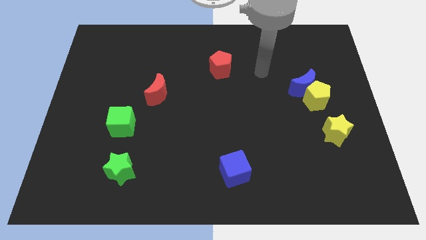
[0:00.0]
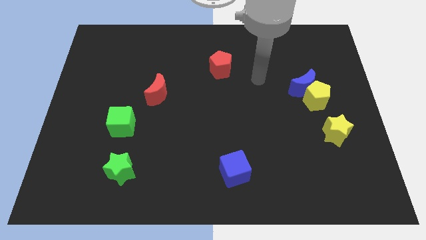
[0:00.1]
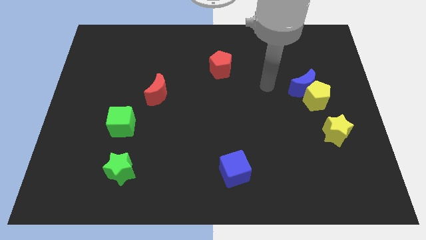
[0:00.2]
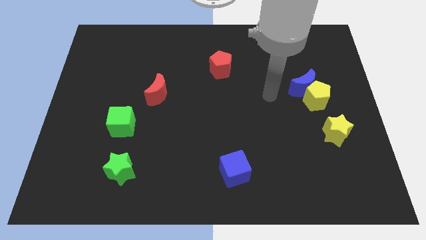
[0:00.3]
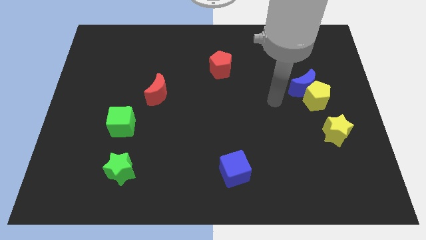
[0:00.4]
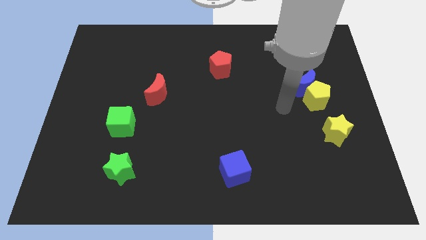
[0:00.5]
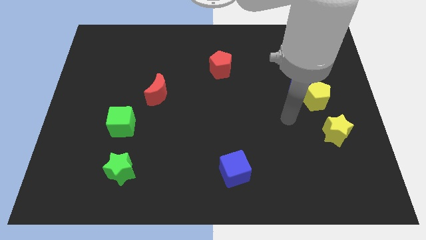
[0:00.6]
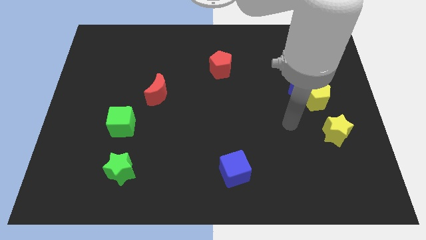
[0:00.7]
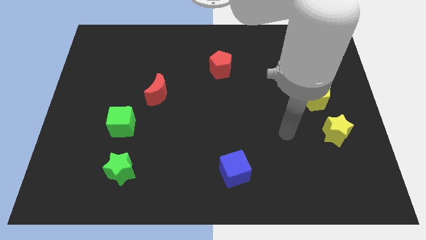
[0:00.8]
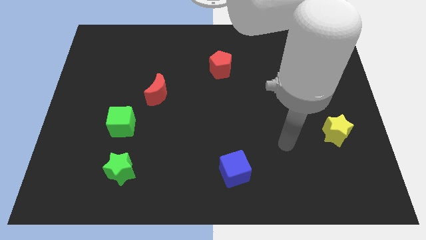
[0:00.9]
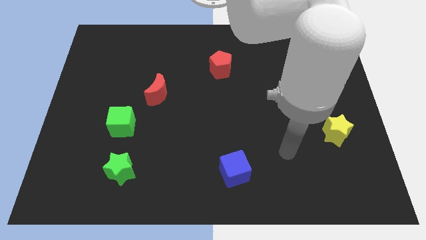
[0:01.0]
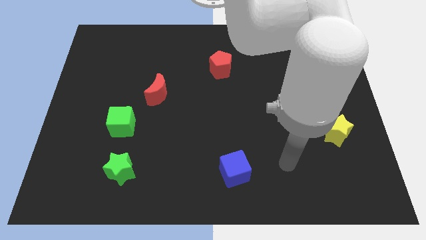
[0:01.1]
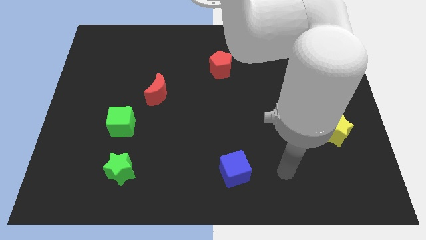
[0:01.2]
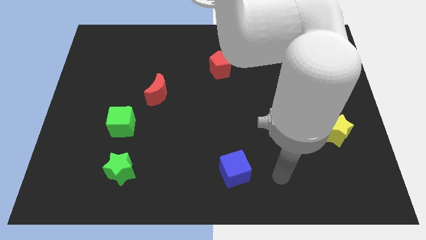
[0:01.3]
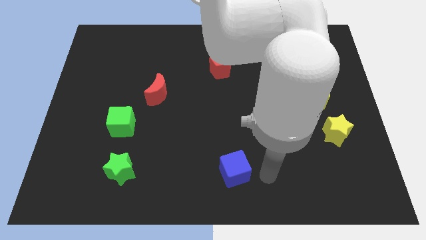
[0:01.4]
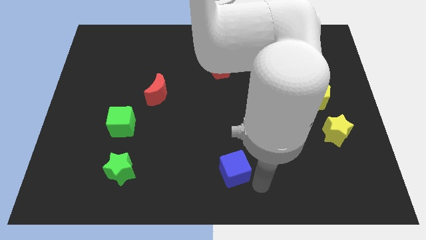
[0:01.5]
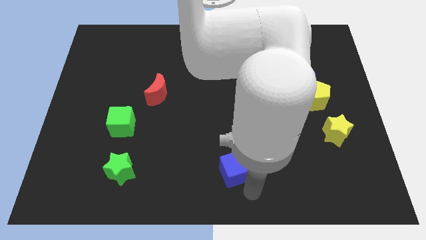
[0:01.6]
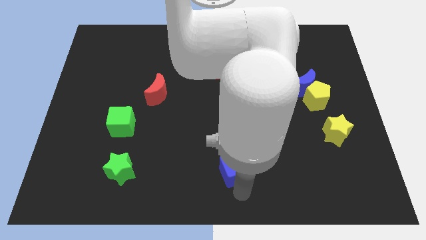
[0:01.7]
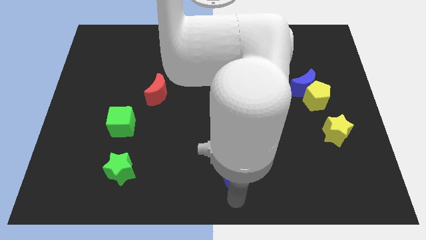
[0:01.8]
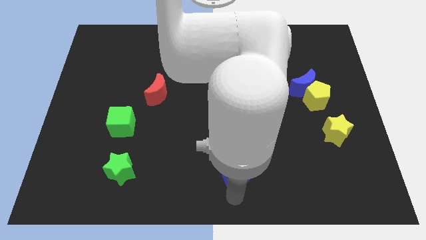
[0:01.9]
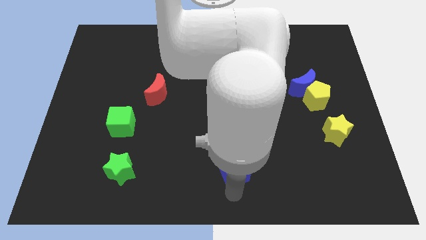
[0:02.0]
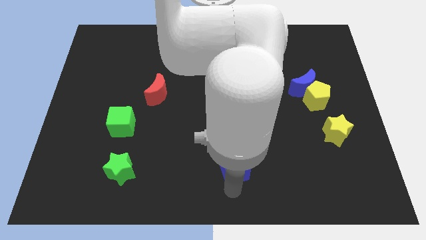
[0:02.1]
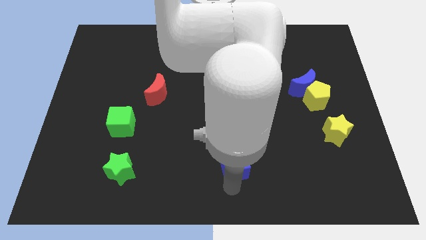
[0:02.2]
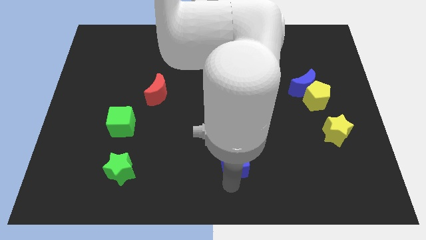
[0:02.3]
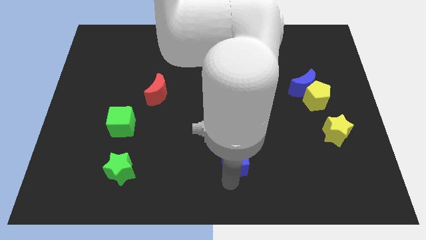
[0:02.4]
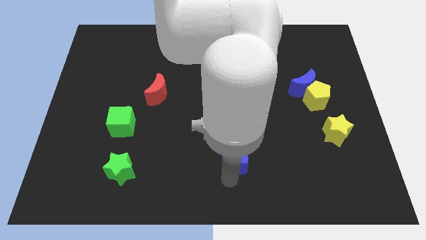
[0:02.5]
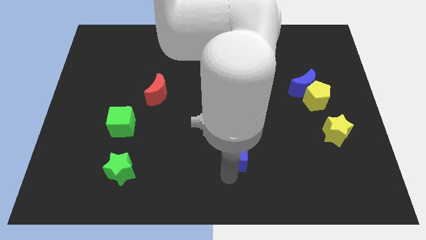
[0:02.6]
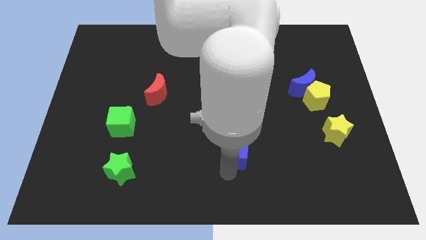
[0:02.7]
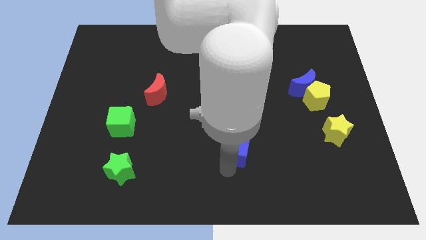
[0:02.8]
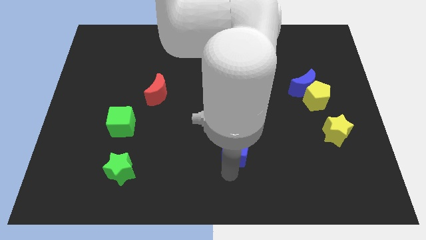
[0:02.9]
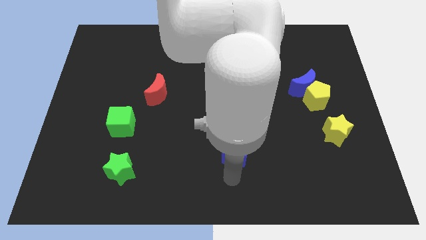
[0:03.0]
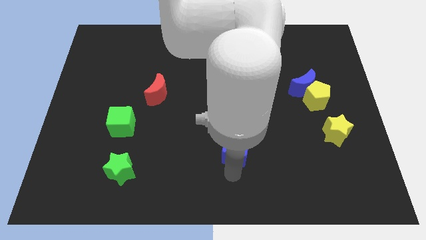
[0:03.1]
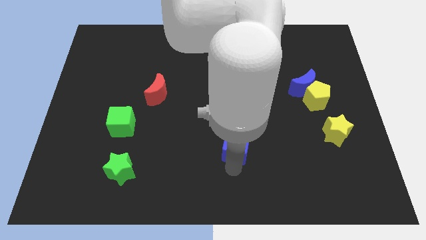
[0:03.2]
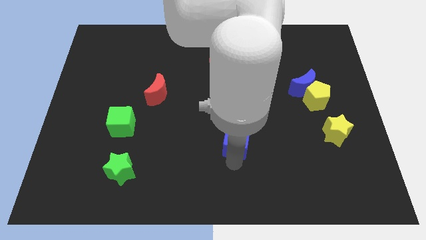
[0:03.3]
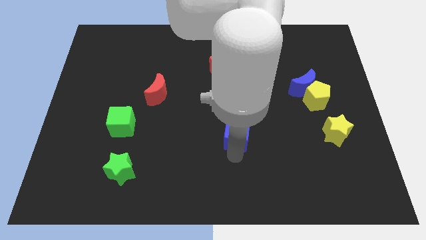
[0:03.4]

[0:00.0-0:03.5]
move the blue cube up somewhat

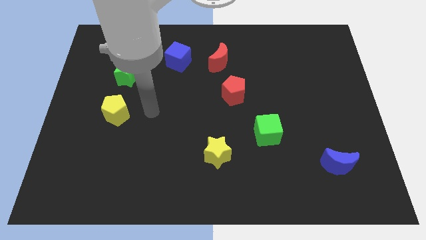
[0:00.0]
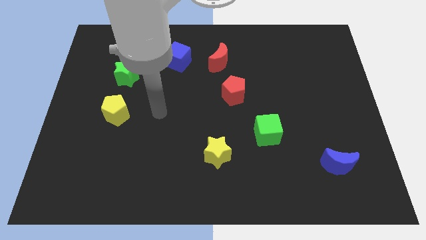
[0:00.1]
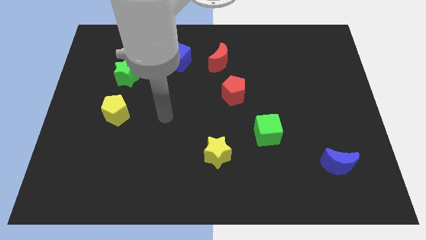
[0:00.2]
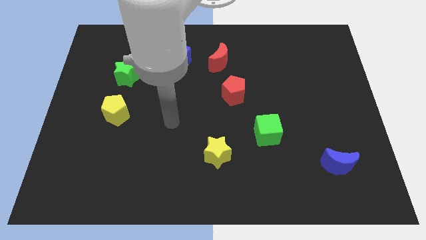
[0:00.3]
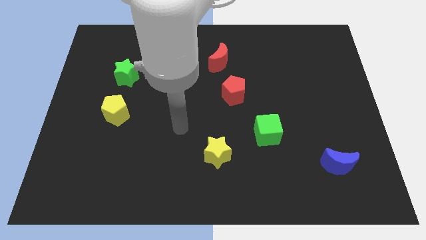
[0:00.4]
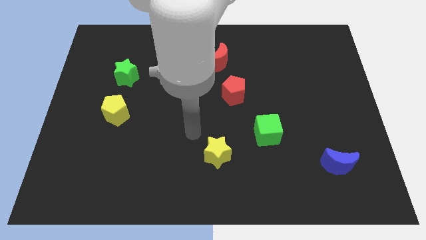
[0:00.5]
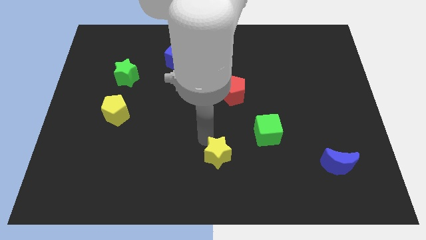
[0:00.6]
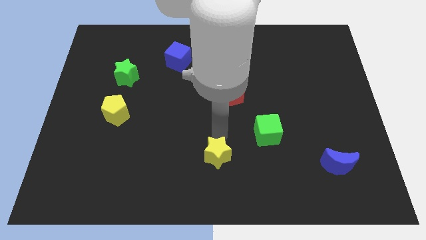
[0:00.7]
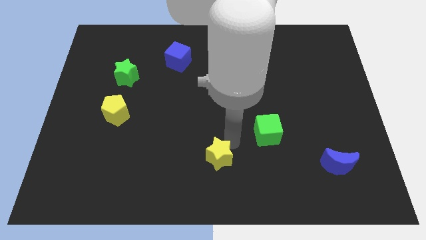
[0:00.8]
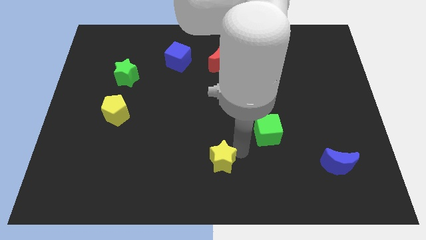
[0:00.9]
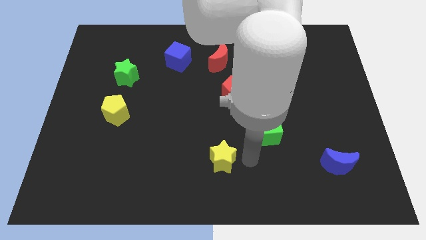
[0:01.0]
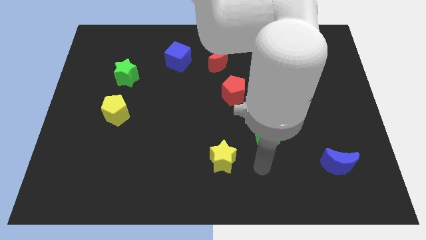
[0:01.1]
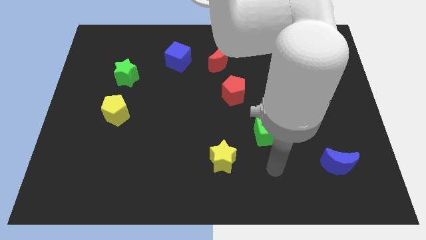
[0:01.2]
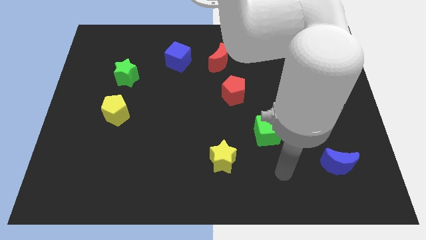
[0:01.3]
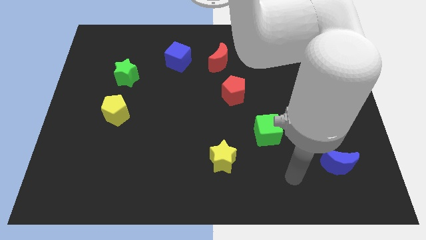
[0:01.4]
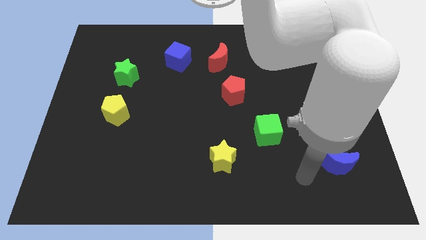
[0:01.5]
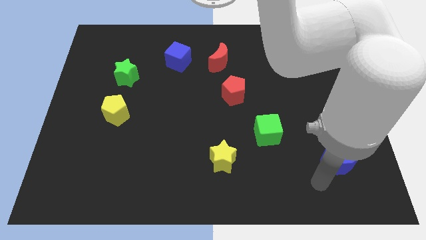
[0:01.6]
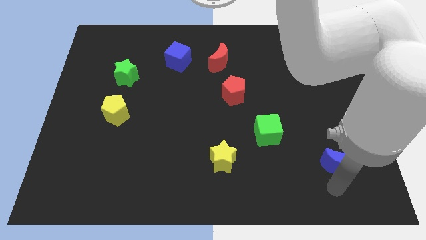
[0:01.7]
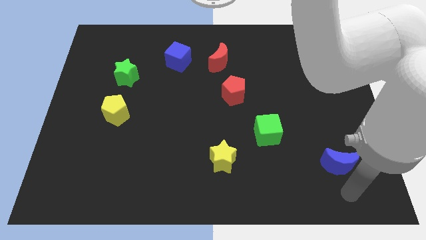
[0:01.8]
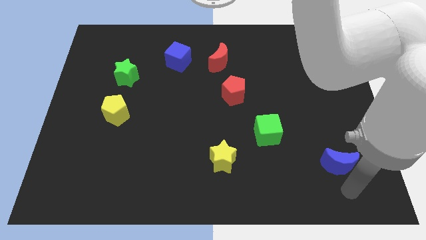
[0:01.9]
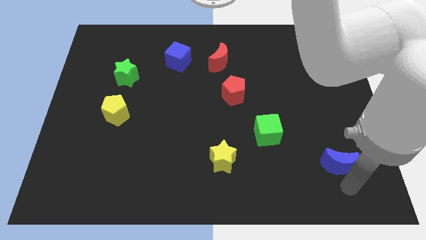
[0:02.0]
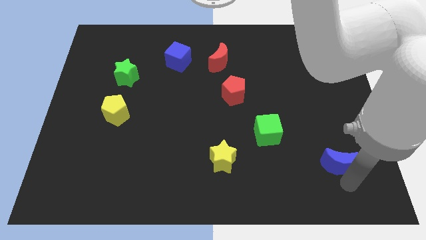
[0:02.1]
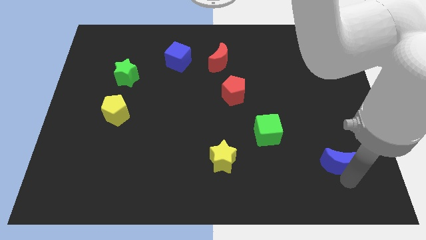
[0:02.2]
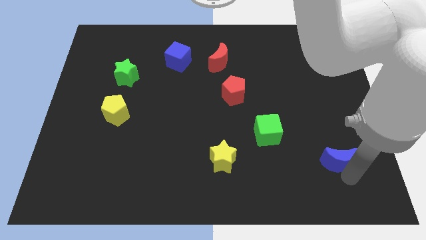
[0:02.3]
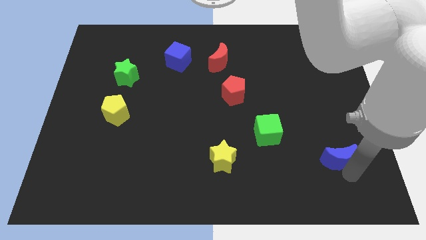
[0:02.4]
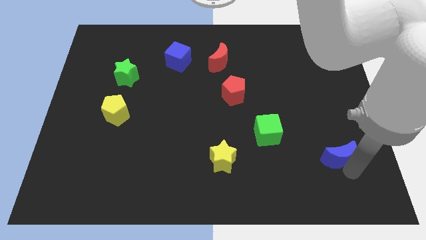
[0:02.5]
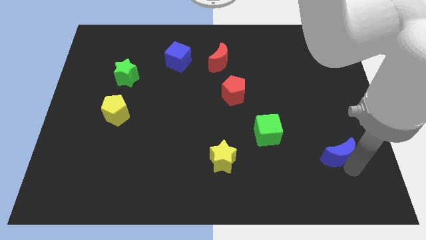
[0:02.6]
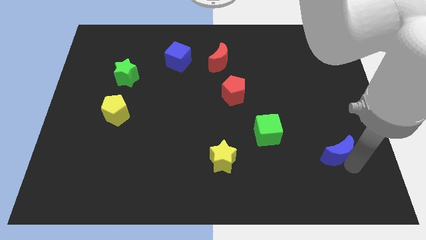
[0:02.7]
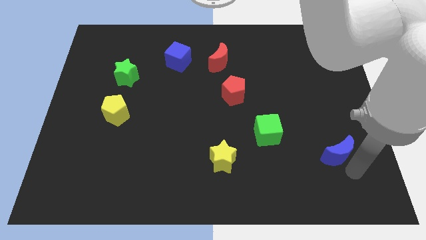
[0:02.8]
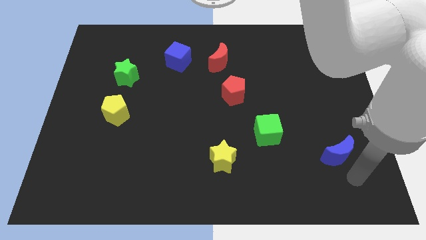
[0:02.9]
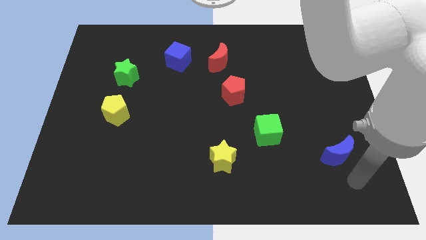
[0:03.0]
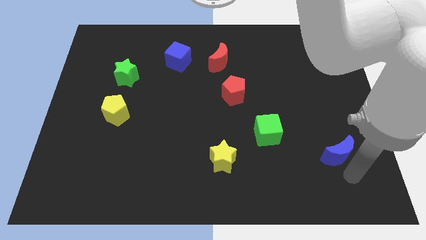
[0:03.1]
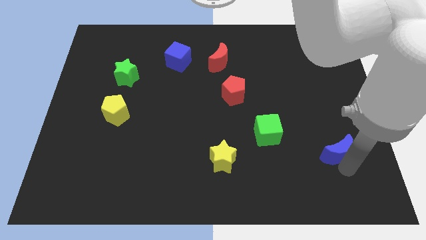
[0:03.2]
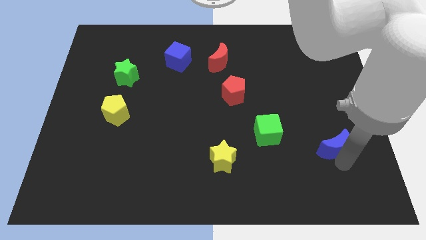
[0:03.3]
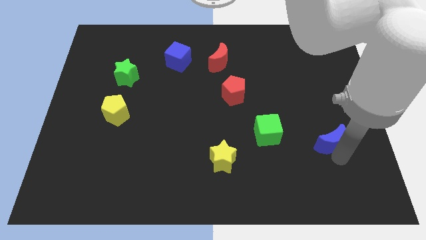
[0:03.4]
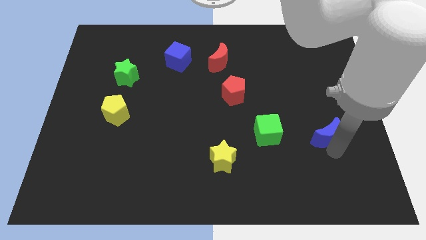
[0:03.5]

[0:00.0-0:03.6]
slide the blue moon a little bit upwards

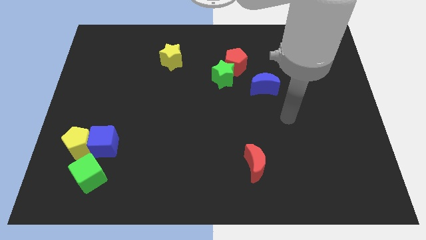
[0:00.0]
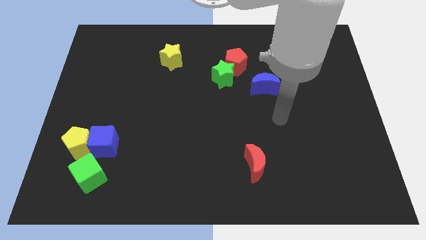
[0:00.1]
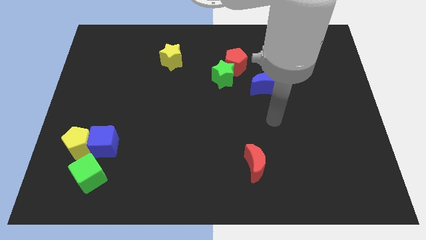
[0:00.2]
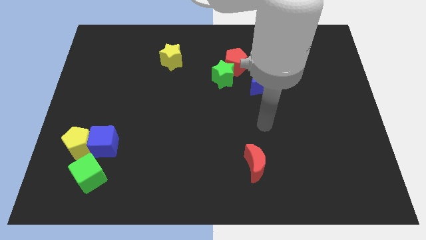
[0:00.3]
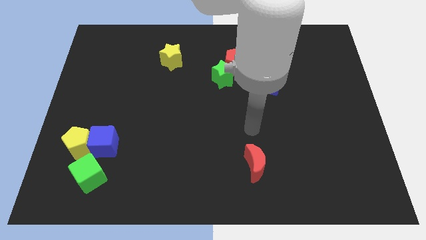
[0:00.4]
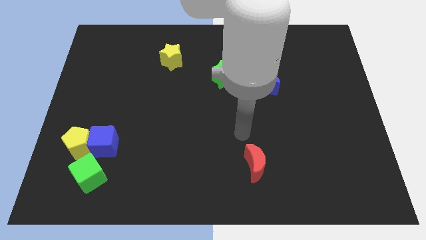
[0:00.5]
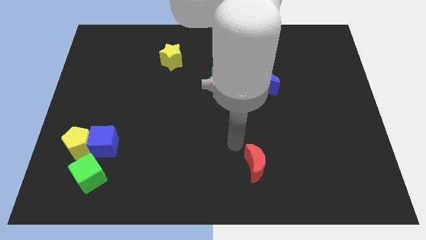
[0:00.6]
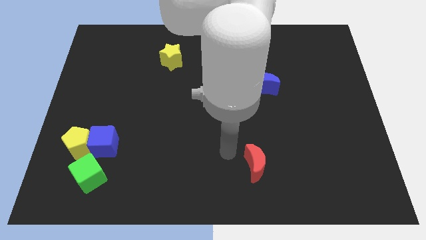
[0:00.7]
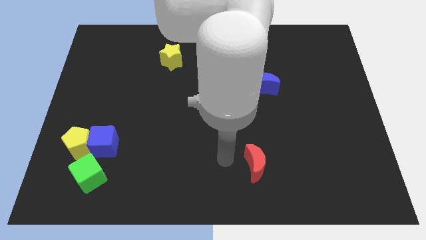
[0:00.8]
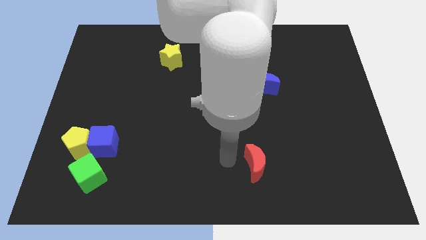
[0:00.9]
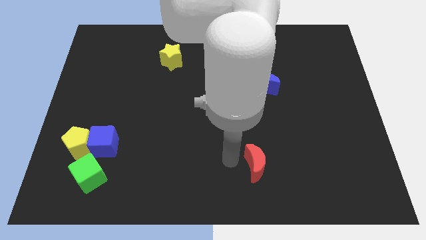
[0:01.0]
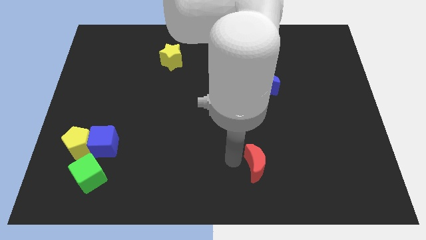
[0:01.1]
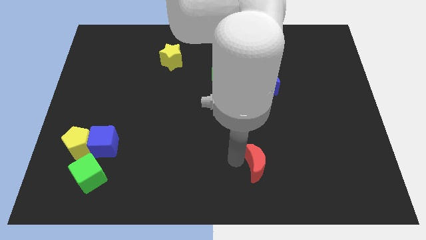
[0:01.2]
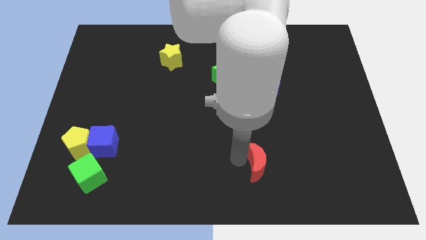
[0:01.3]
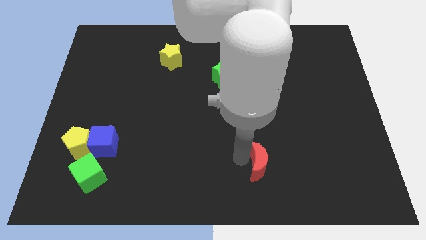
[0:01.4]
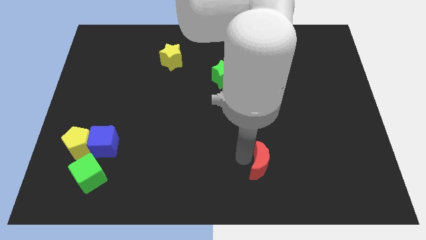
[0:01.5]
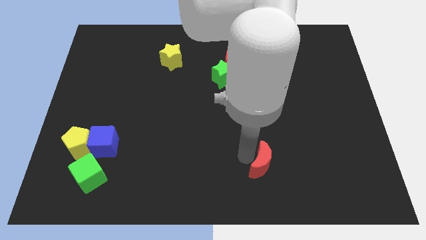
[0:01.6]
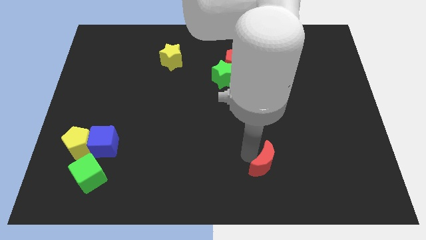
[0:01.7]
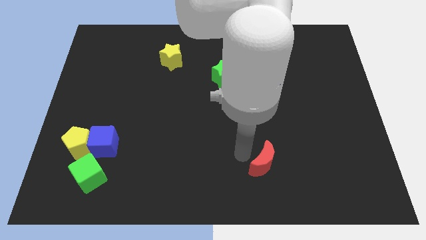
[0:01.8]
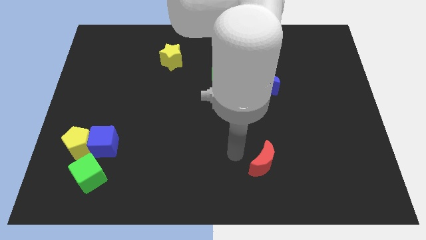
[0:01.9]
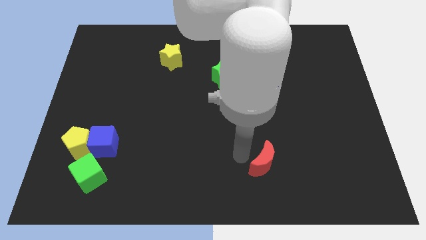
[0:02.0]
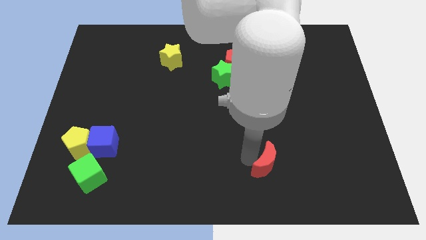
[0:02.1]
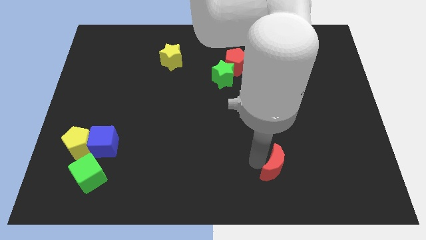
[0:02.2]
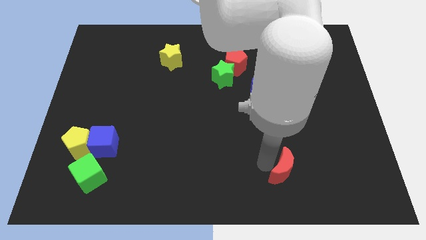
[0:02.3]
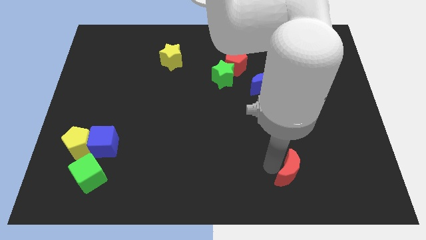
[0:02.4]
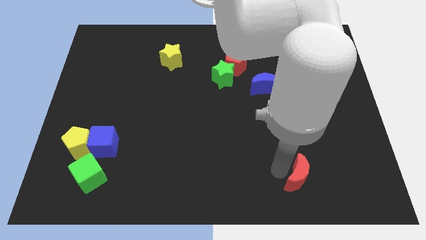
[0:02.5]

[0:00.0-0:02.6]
push the red moon a bit to the right
